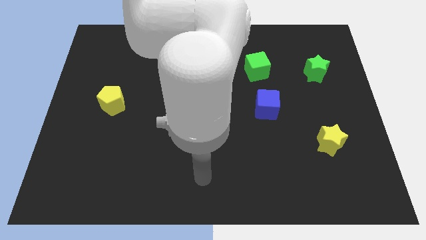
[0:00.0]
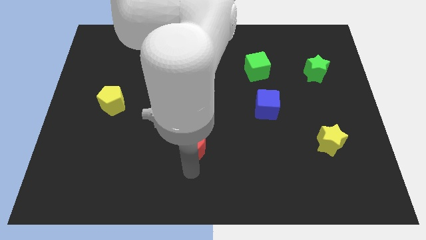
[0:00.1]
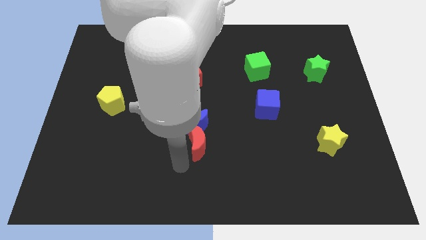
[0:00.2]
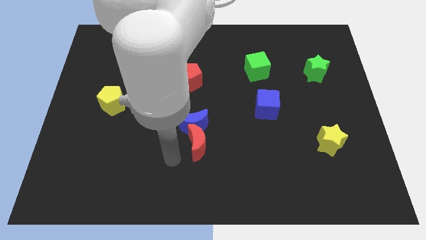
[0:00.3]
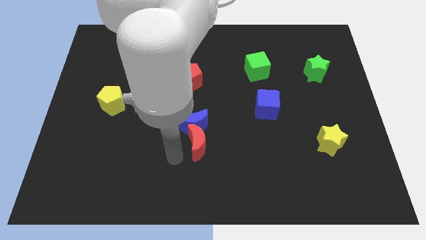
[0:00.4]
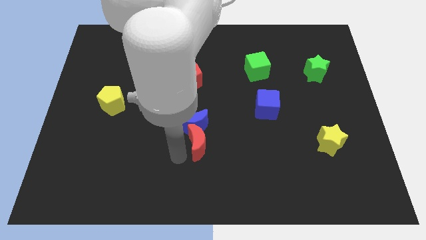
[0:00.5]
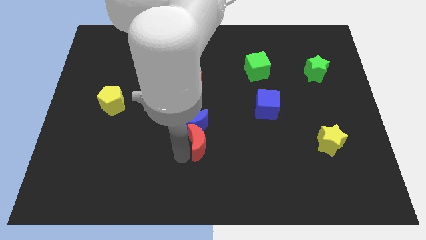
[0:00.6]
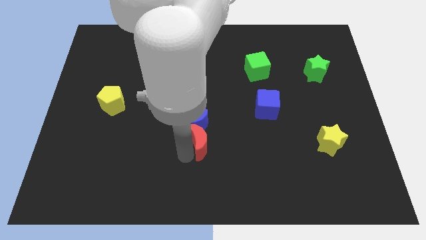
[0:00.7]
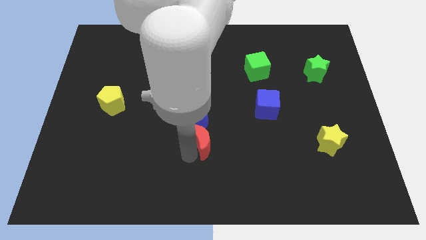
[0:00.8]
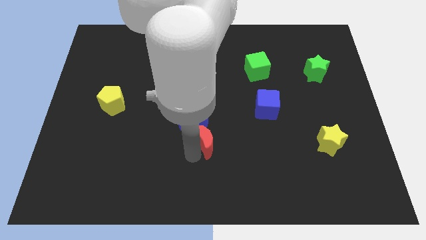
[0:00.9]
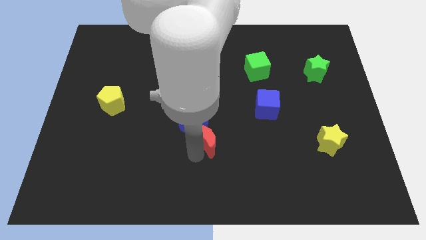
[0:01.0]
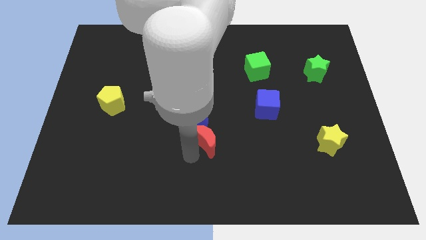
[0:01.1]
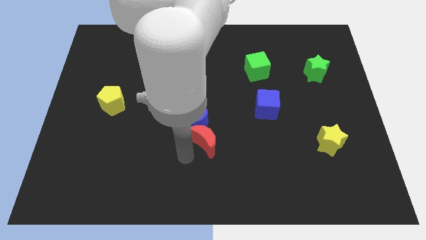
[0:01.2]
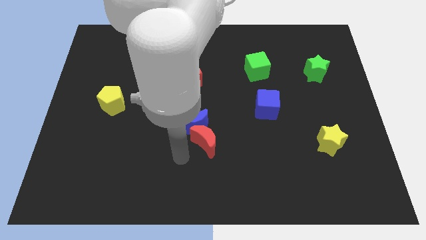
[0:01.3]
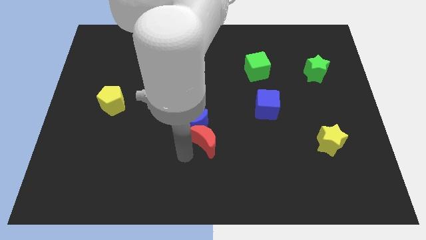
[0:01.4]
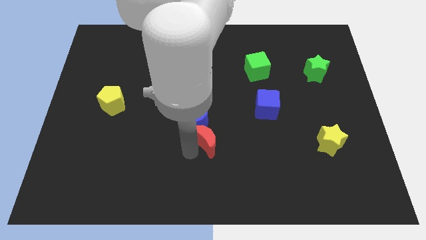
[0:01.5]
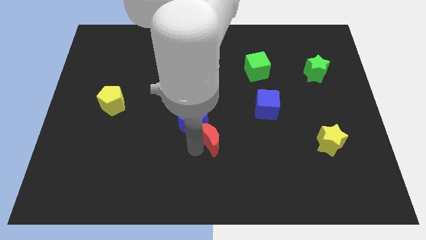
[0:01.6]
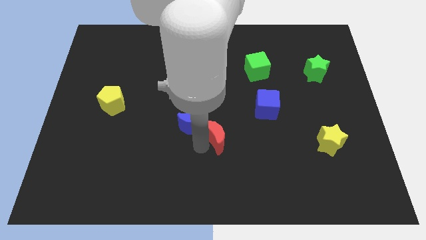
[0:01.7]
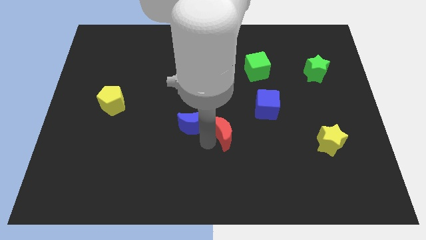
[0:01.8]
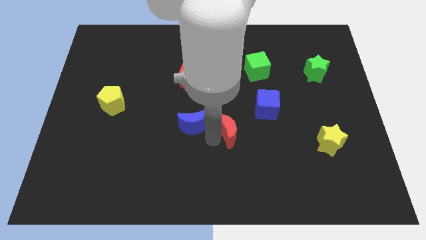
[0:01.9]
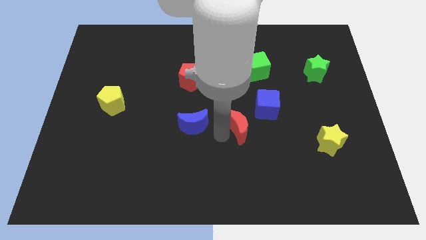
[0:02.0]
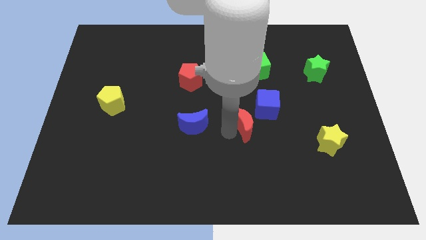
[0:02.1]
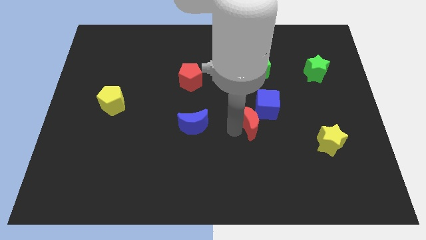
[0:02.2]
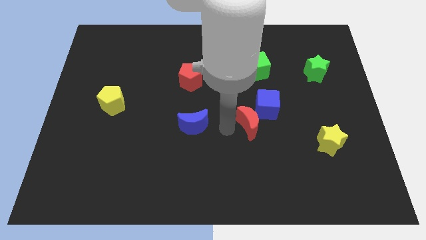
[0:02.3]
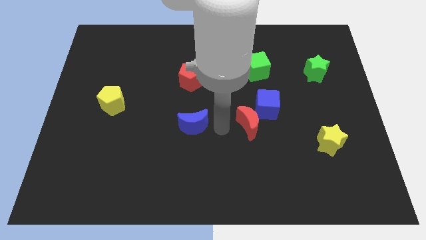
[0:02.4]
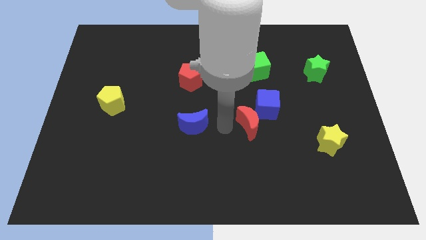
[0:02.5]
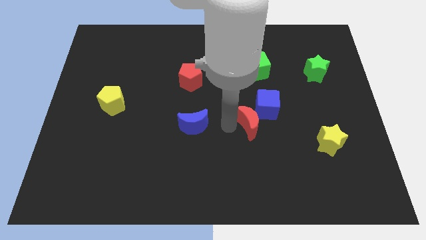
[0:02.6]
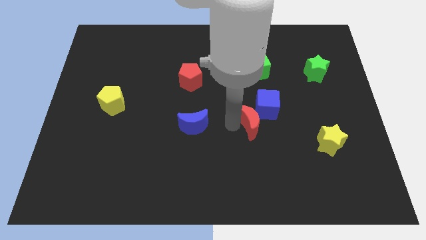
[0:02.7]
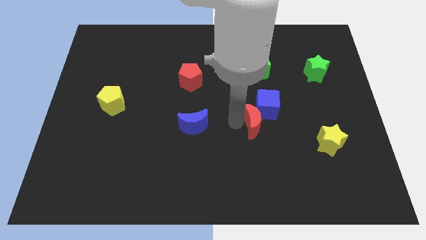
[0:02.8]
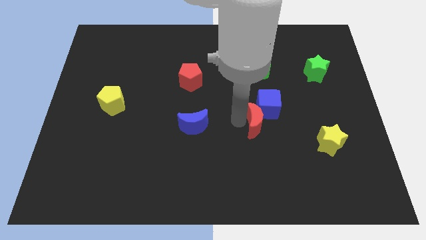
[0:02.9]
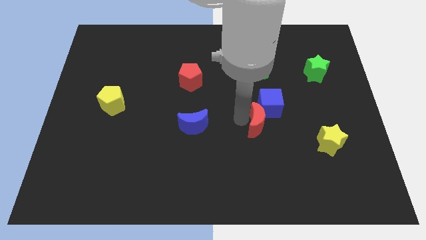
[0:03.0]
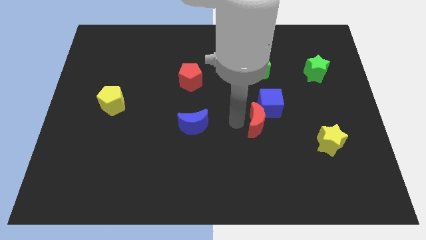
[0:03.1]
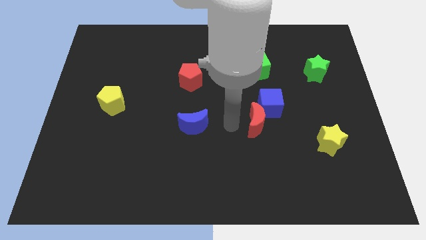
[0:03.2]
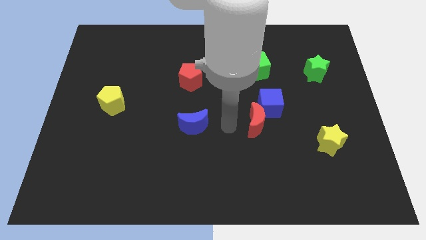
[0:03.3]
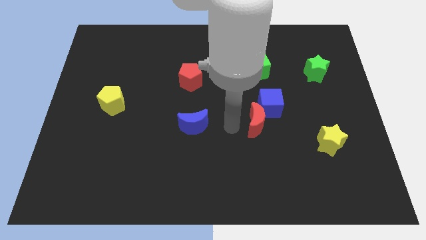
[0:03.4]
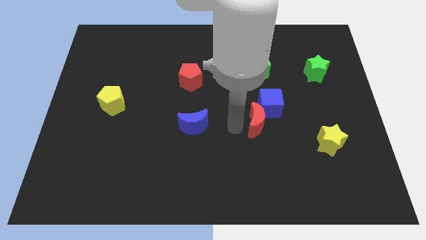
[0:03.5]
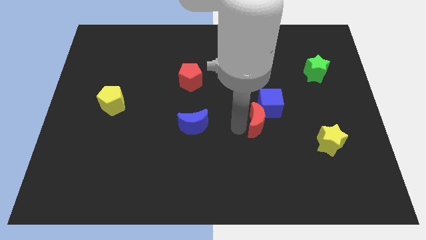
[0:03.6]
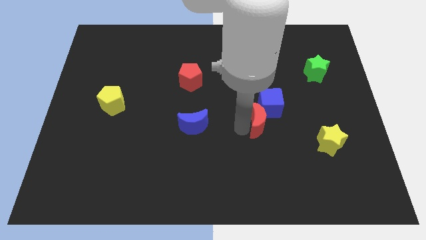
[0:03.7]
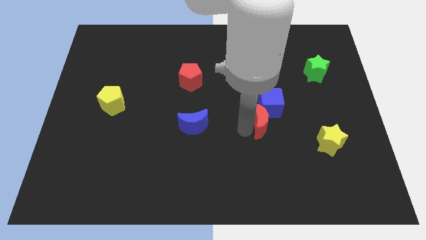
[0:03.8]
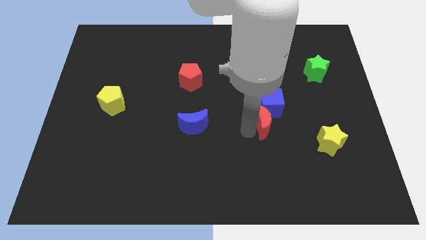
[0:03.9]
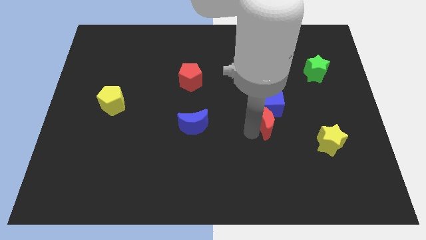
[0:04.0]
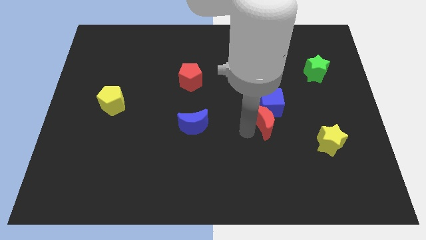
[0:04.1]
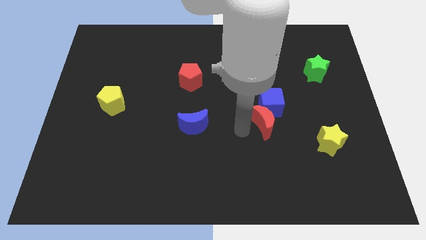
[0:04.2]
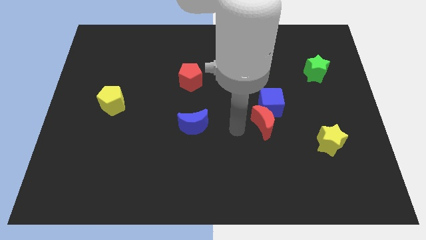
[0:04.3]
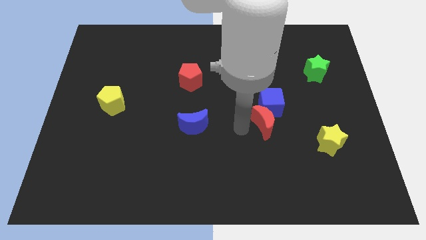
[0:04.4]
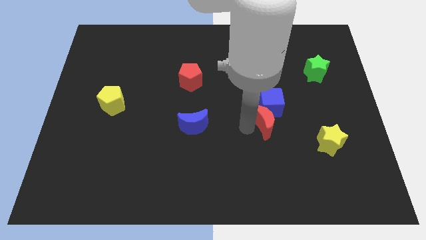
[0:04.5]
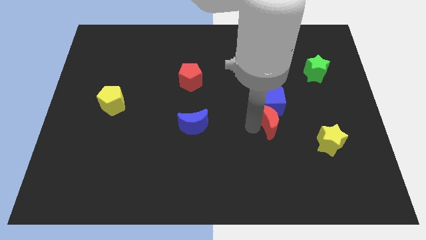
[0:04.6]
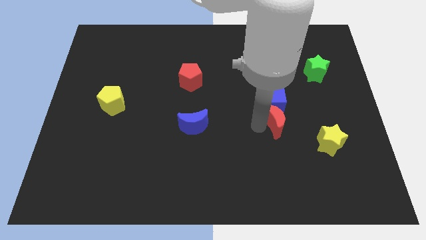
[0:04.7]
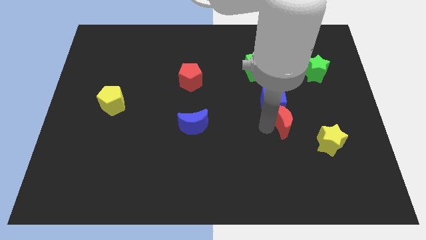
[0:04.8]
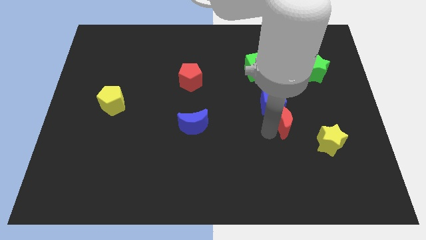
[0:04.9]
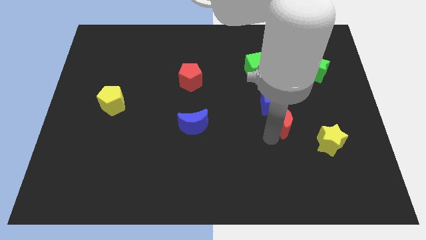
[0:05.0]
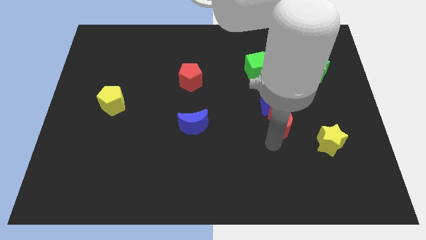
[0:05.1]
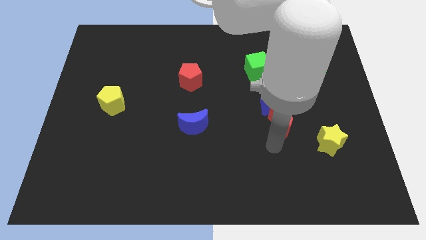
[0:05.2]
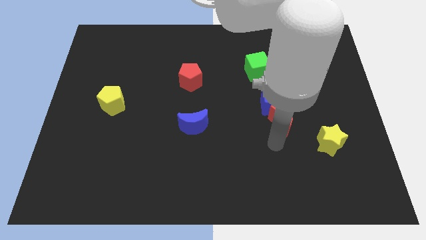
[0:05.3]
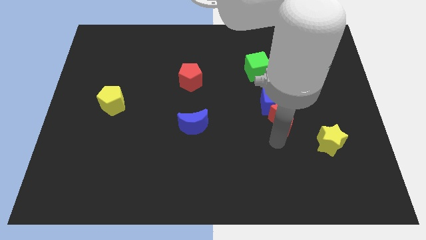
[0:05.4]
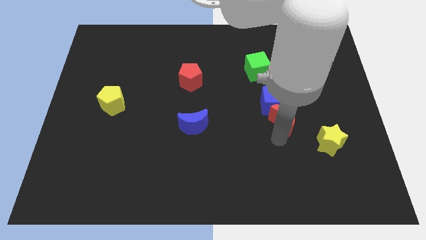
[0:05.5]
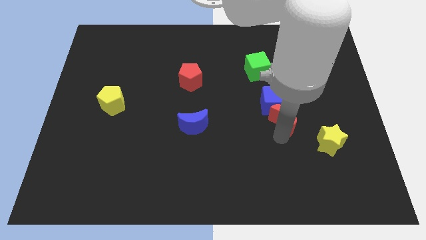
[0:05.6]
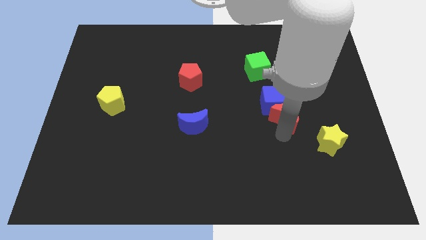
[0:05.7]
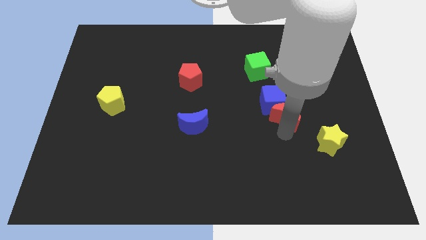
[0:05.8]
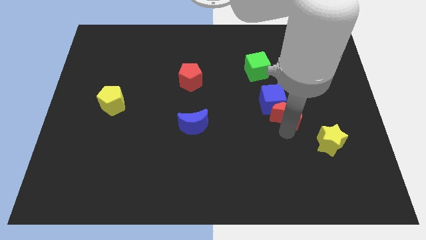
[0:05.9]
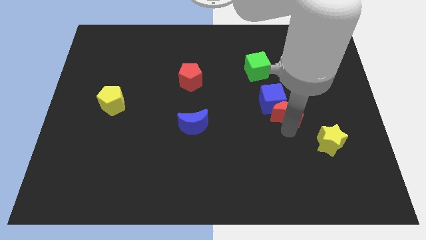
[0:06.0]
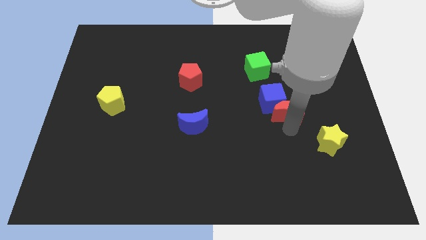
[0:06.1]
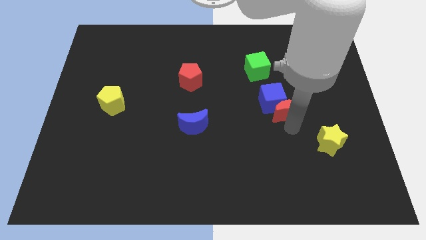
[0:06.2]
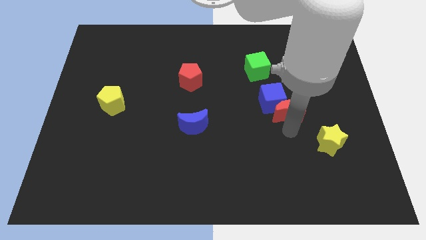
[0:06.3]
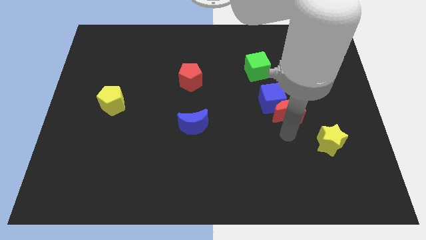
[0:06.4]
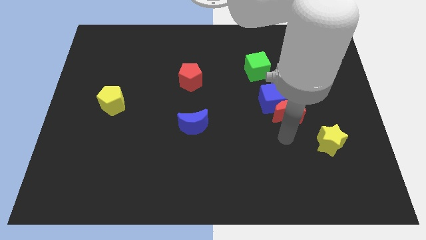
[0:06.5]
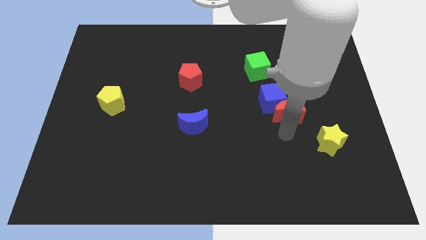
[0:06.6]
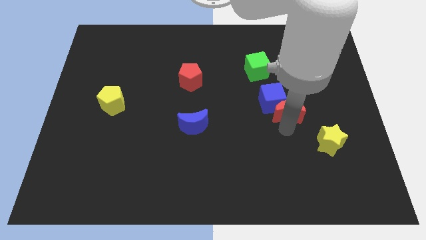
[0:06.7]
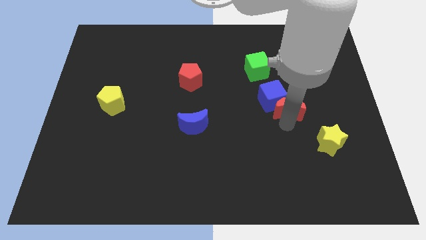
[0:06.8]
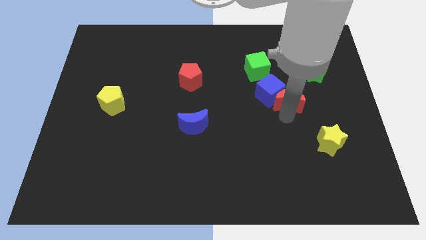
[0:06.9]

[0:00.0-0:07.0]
put the red moon to the bottom left of the green star

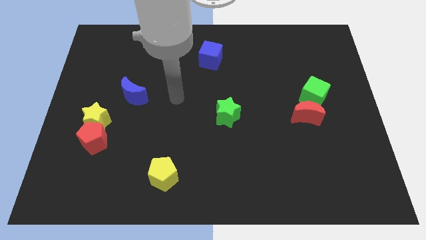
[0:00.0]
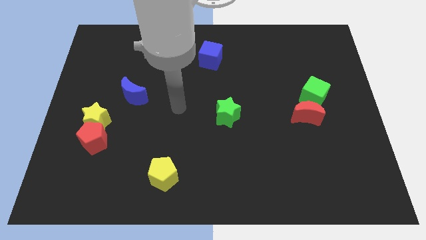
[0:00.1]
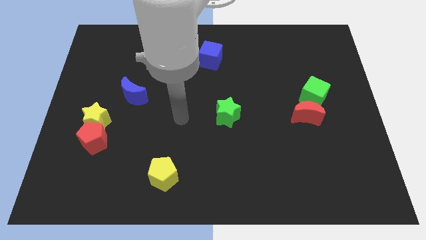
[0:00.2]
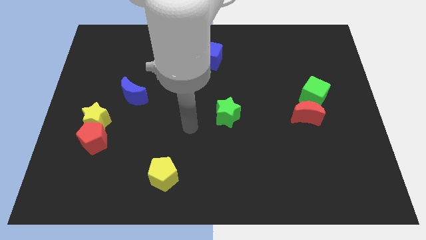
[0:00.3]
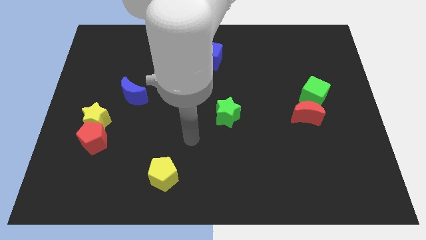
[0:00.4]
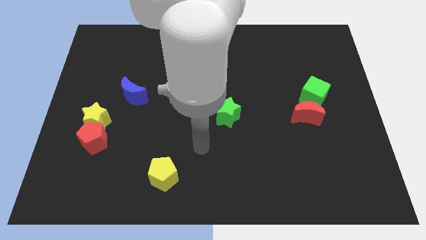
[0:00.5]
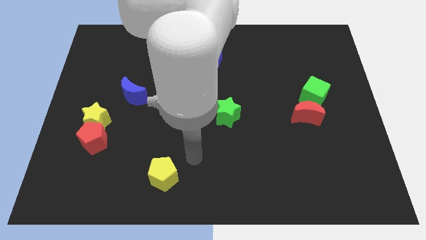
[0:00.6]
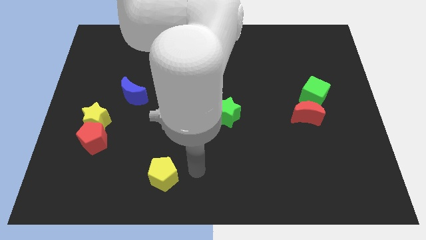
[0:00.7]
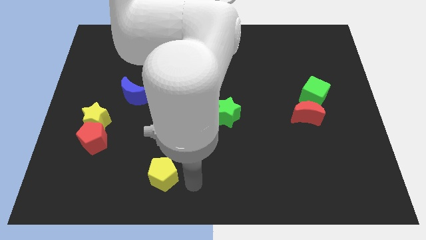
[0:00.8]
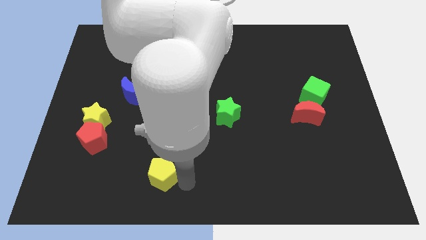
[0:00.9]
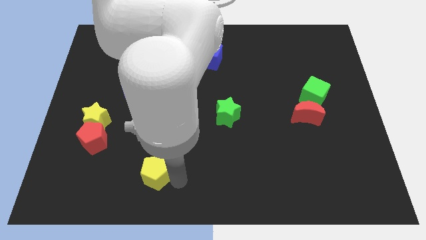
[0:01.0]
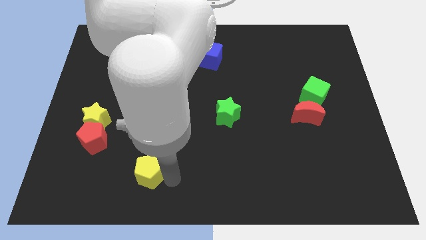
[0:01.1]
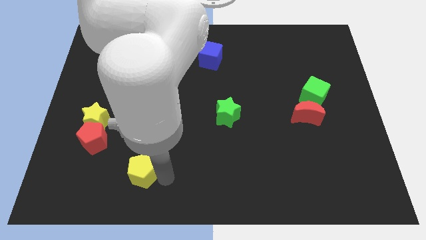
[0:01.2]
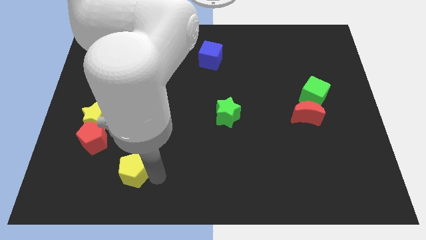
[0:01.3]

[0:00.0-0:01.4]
push the yellow pentagon to the bottom right side of the red pentagon
